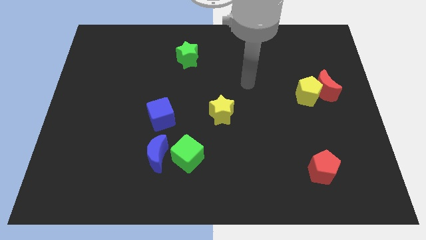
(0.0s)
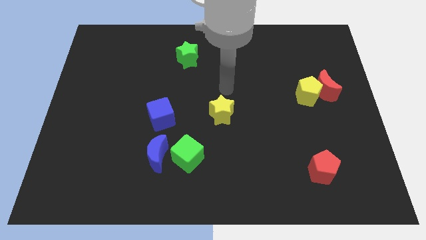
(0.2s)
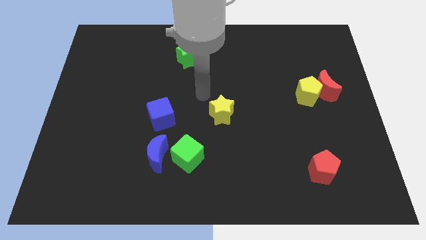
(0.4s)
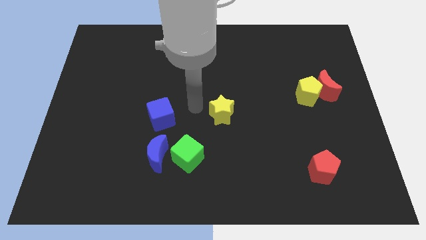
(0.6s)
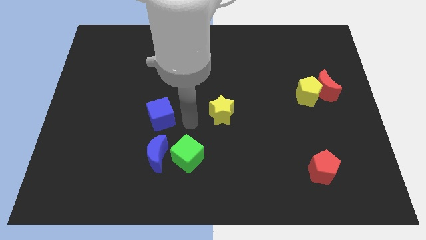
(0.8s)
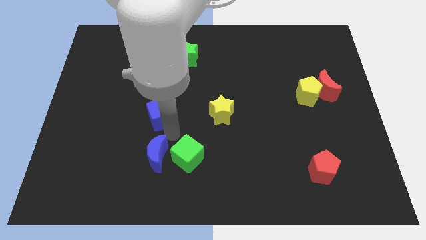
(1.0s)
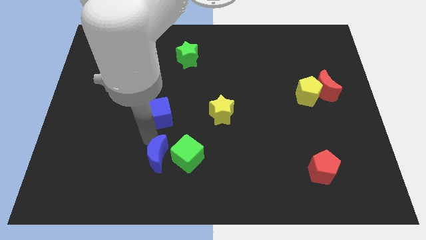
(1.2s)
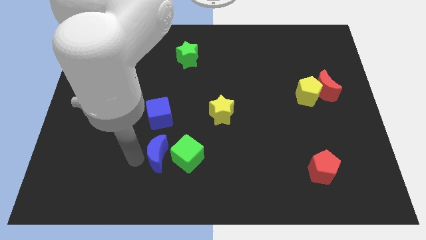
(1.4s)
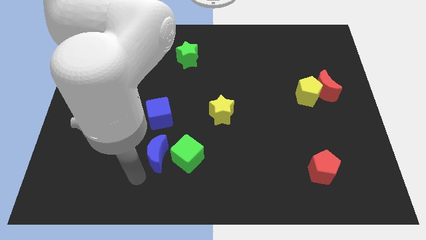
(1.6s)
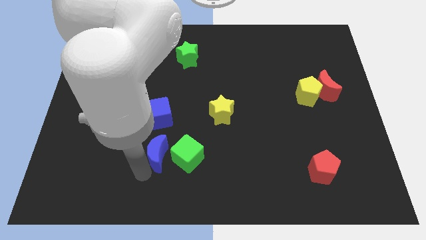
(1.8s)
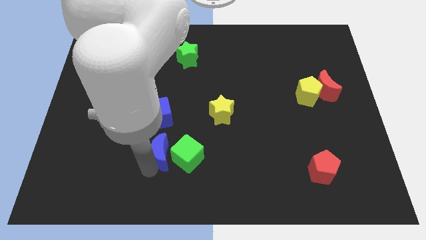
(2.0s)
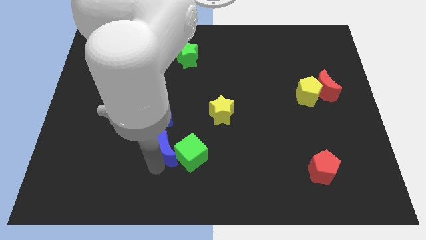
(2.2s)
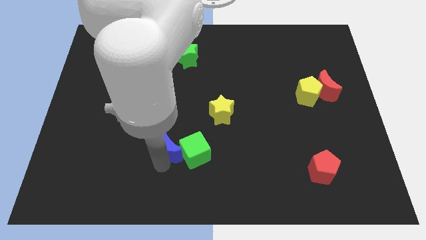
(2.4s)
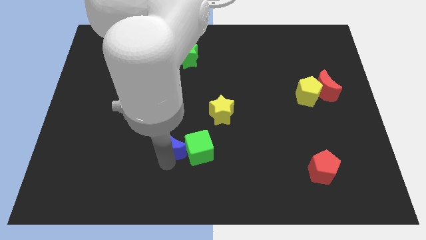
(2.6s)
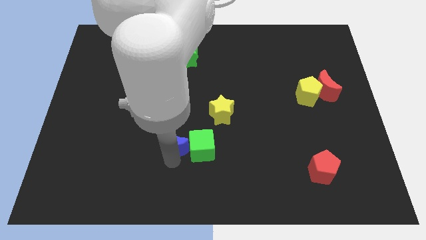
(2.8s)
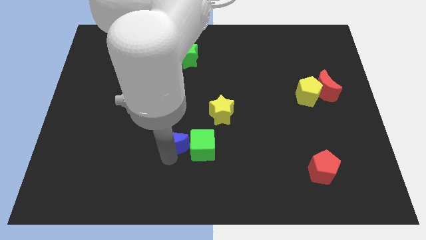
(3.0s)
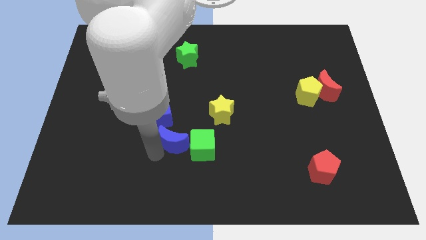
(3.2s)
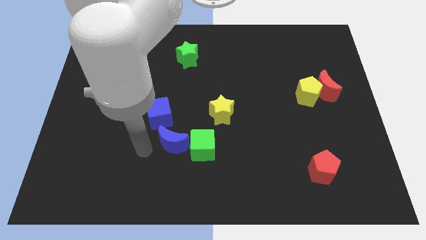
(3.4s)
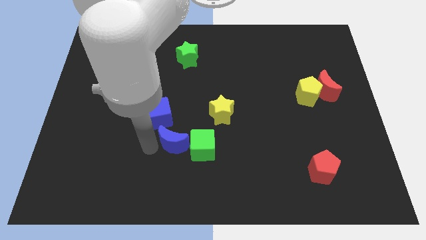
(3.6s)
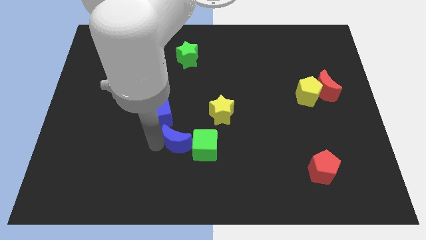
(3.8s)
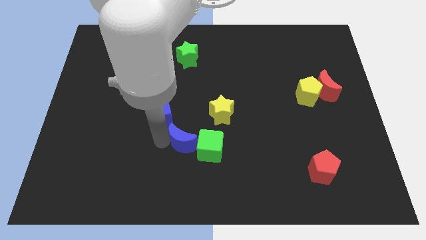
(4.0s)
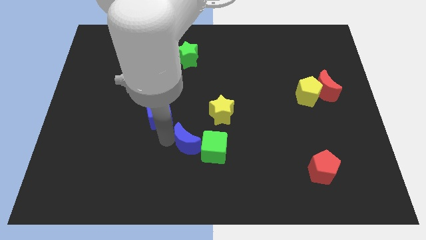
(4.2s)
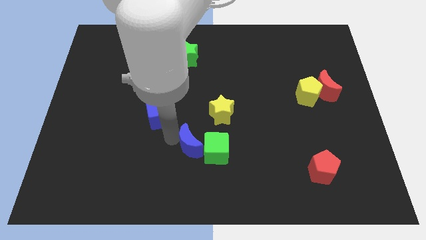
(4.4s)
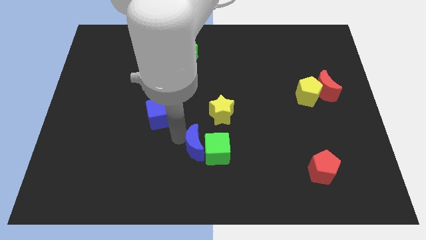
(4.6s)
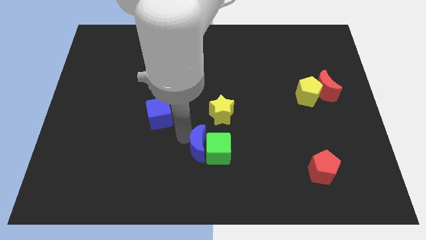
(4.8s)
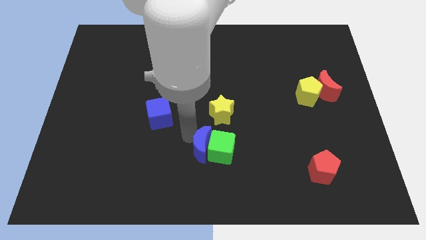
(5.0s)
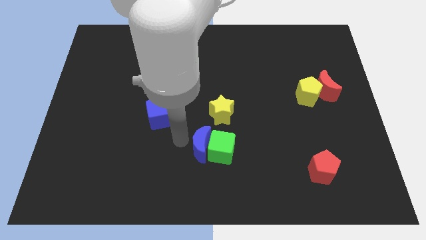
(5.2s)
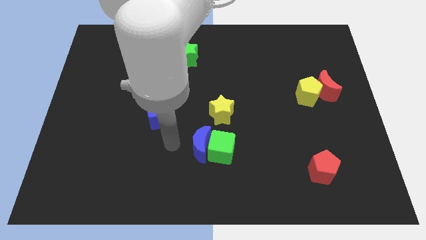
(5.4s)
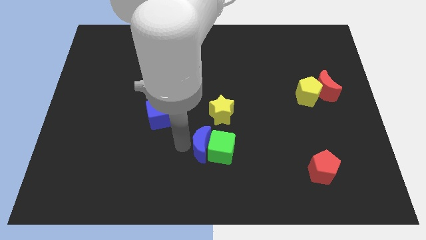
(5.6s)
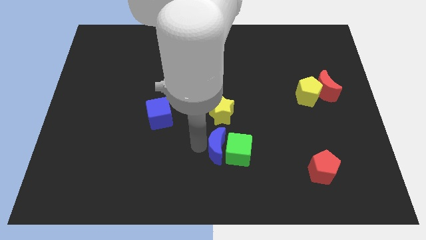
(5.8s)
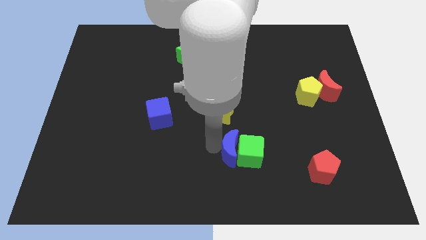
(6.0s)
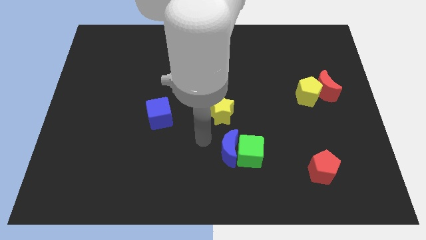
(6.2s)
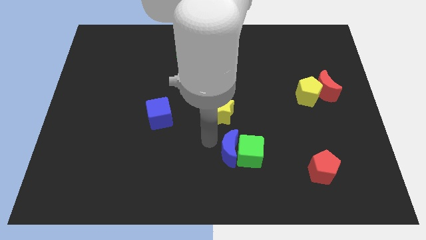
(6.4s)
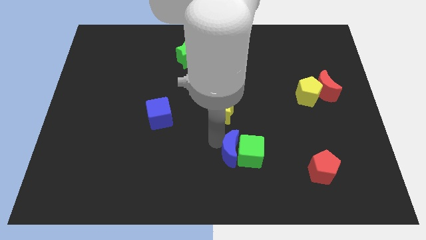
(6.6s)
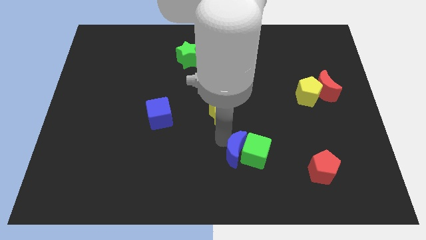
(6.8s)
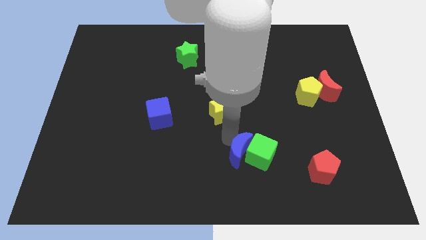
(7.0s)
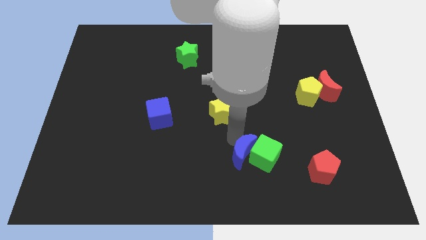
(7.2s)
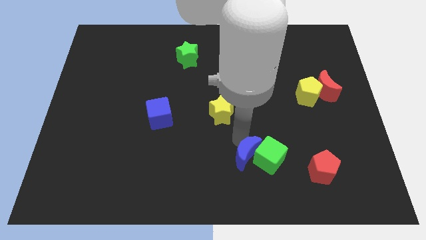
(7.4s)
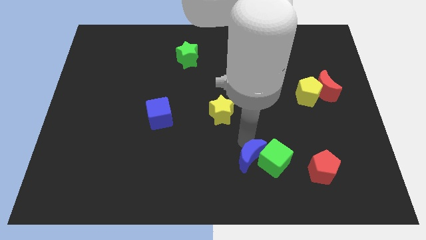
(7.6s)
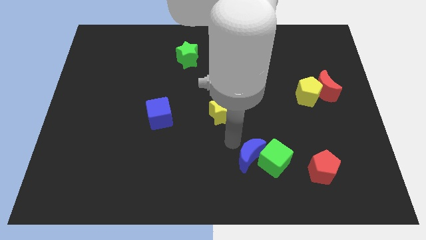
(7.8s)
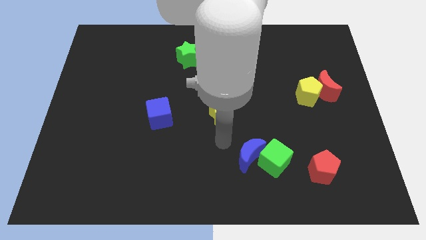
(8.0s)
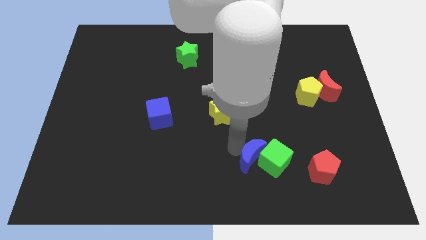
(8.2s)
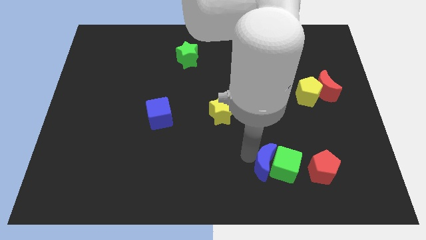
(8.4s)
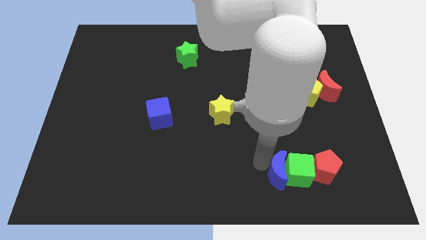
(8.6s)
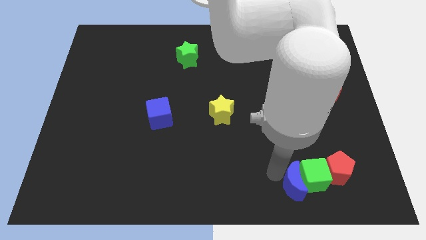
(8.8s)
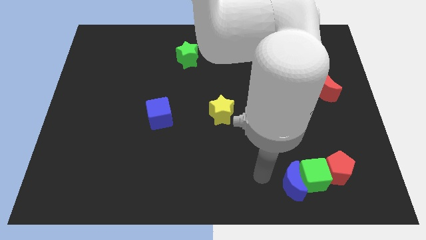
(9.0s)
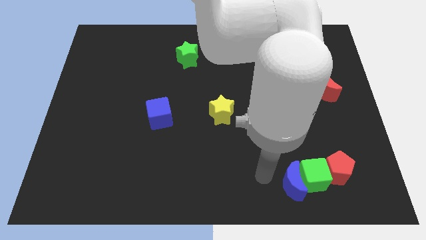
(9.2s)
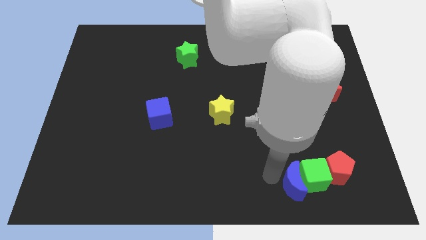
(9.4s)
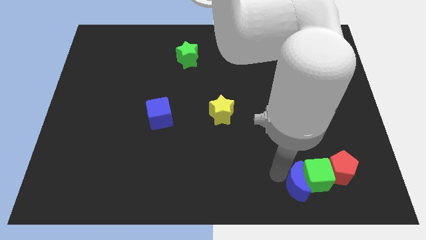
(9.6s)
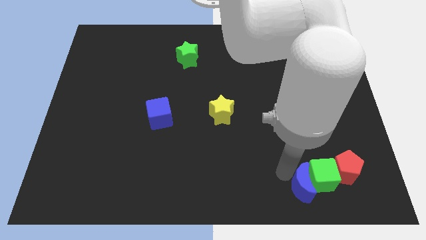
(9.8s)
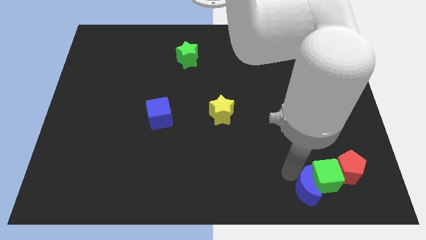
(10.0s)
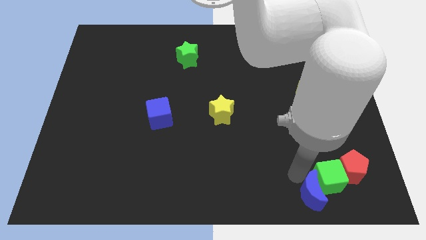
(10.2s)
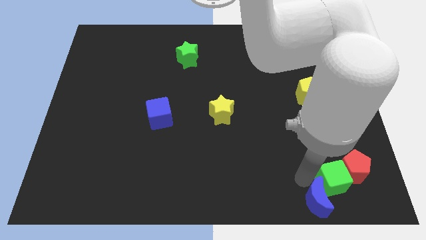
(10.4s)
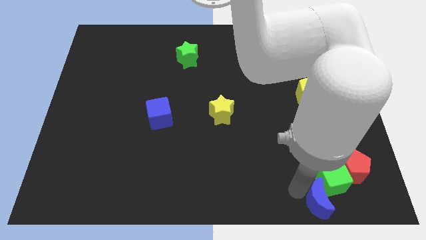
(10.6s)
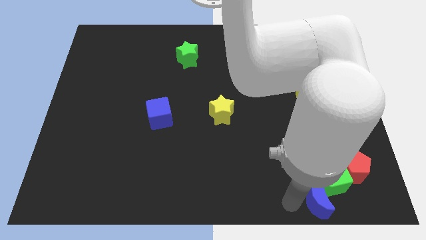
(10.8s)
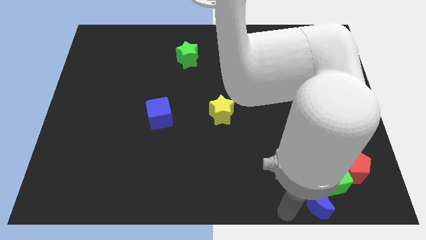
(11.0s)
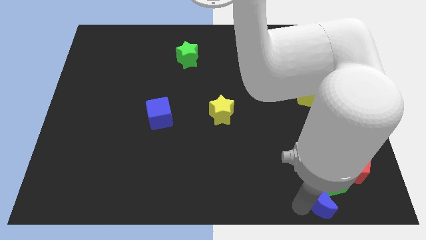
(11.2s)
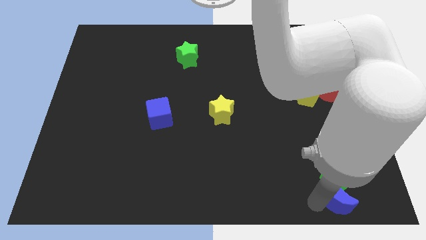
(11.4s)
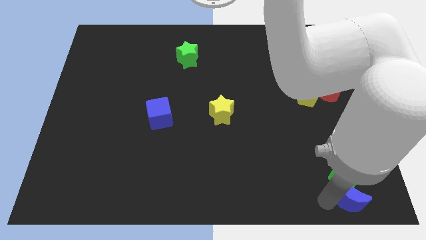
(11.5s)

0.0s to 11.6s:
move the blue moon to the bottom right
